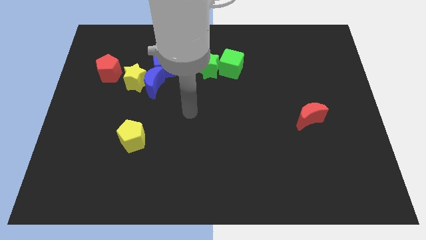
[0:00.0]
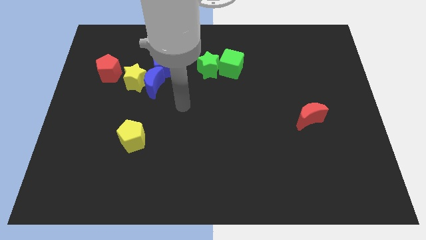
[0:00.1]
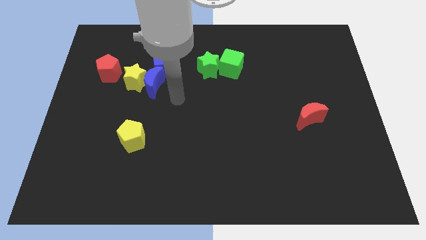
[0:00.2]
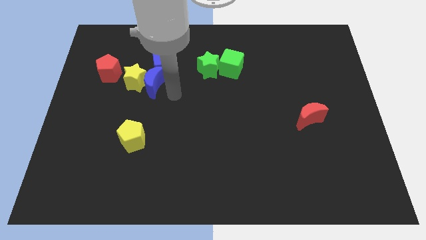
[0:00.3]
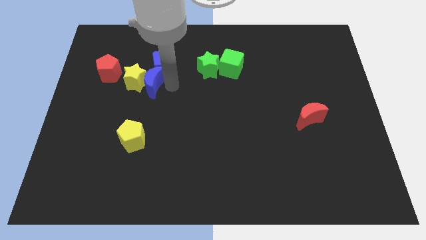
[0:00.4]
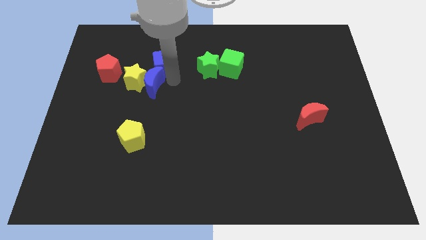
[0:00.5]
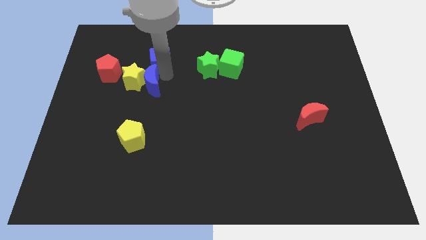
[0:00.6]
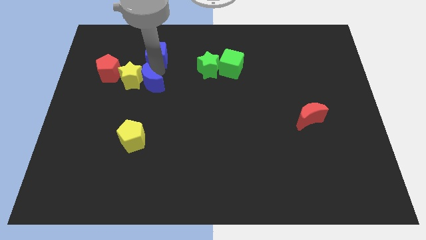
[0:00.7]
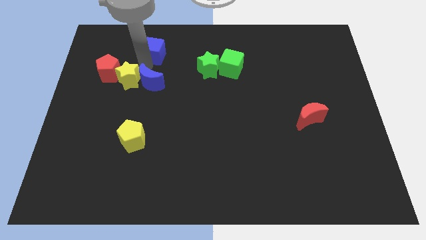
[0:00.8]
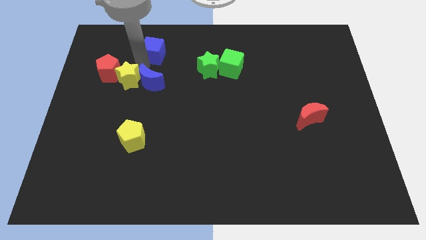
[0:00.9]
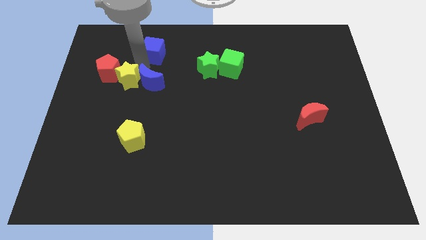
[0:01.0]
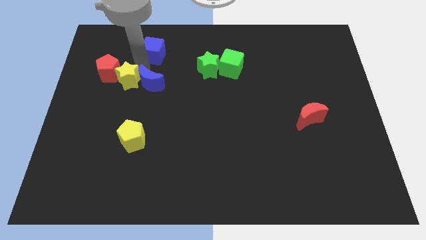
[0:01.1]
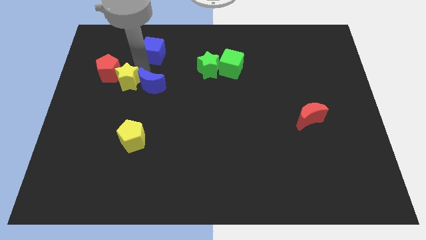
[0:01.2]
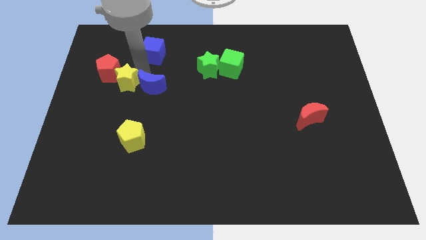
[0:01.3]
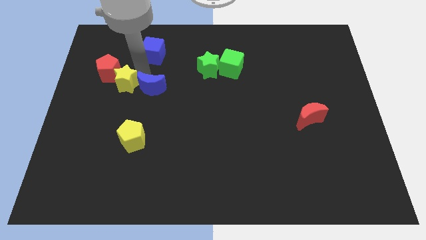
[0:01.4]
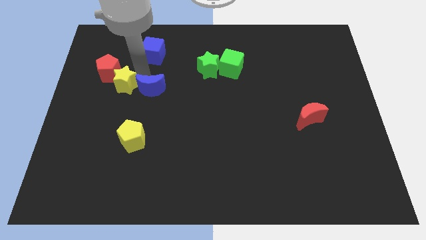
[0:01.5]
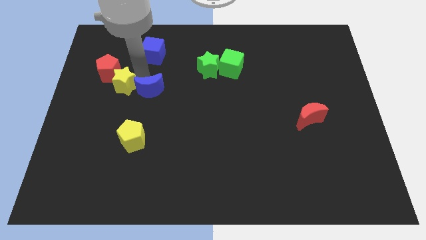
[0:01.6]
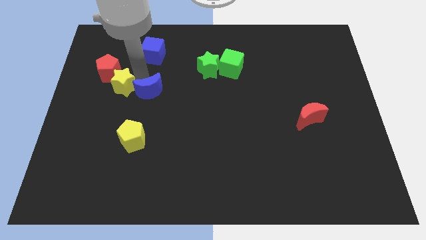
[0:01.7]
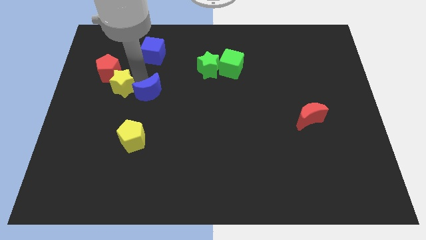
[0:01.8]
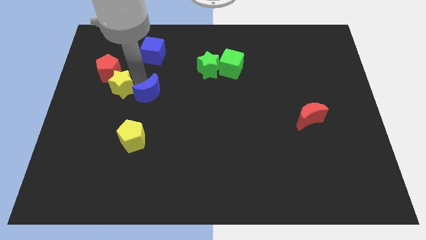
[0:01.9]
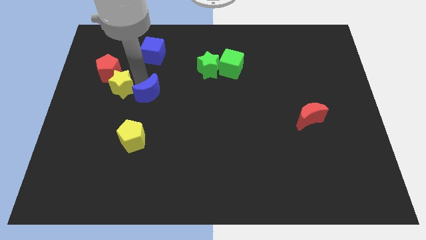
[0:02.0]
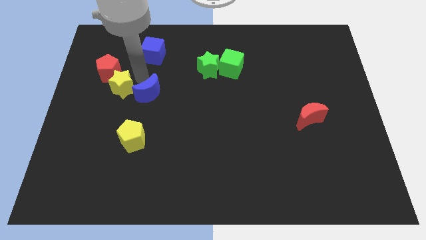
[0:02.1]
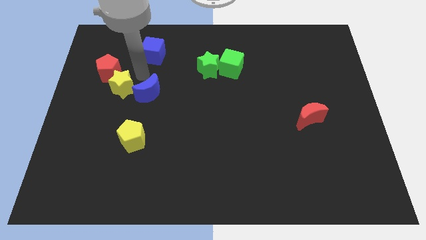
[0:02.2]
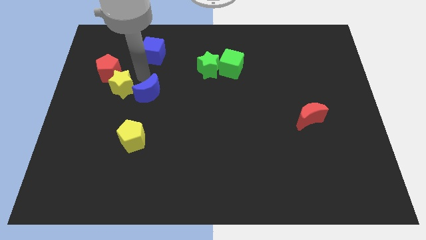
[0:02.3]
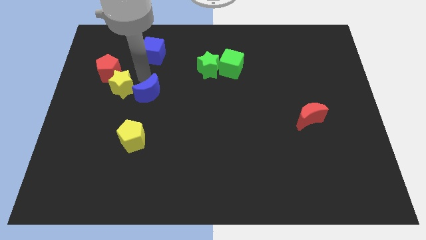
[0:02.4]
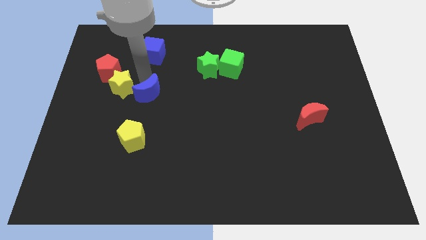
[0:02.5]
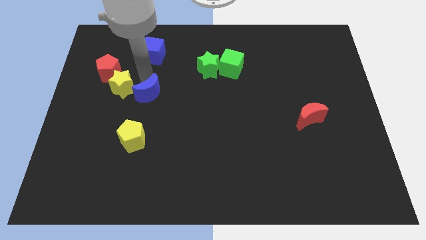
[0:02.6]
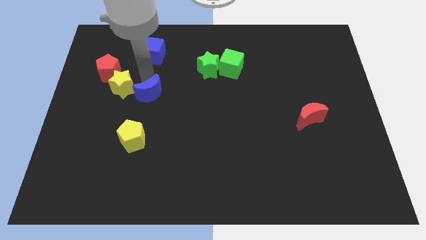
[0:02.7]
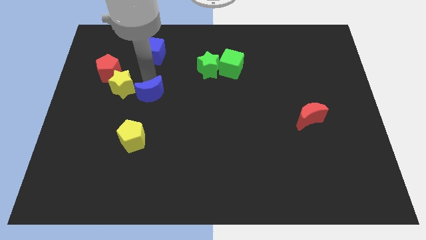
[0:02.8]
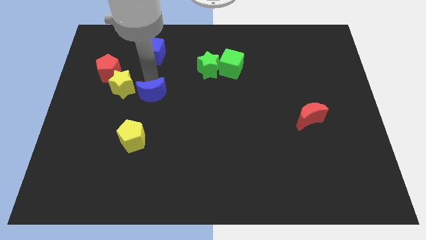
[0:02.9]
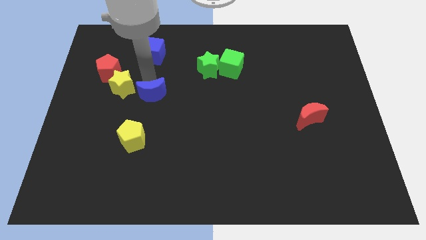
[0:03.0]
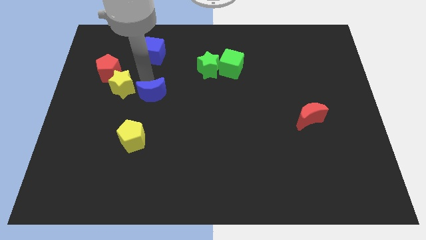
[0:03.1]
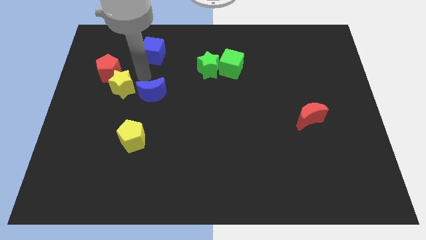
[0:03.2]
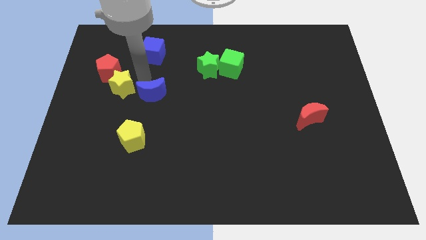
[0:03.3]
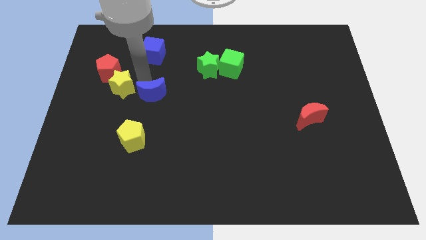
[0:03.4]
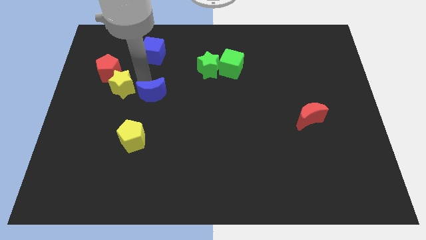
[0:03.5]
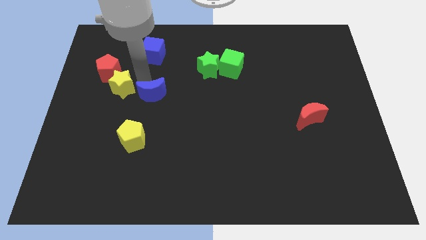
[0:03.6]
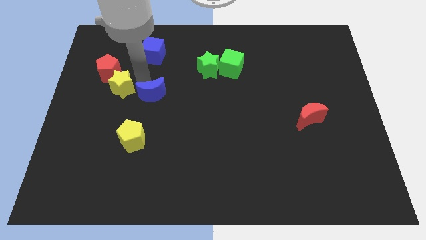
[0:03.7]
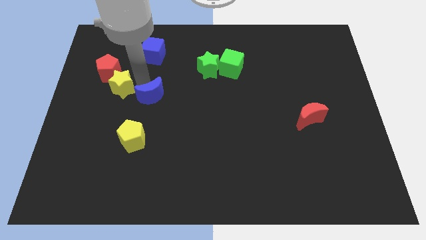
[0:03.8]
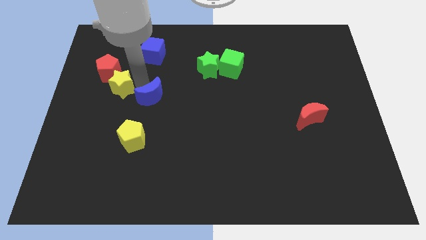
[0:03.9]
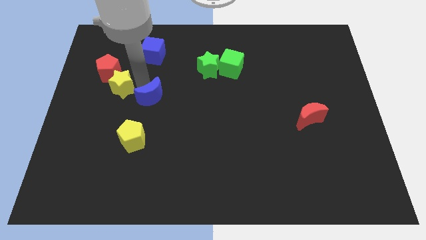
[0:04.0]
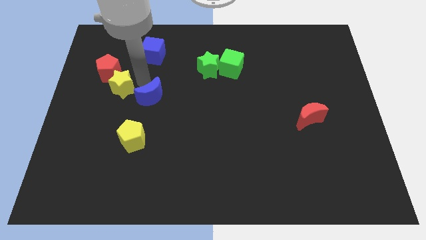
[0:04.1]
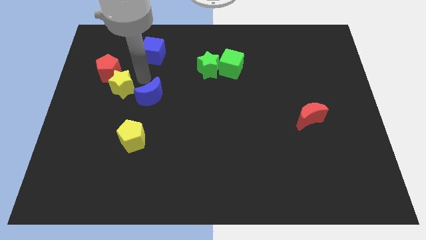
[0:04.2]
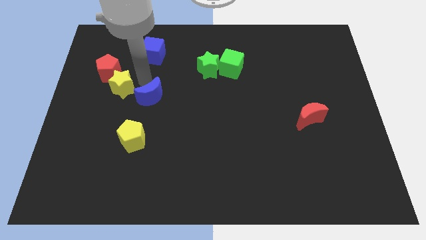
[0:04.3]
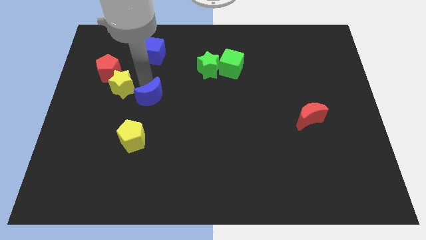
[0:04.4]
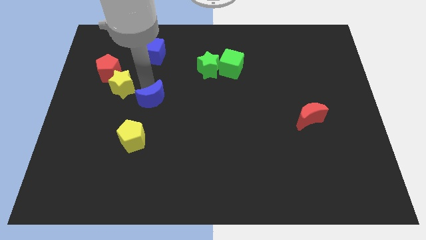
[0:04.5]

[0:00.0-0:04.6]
move the blue moon away from the yellow star and blue cube

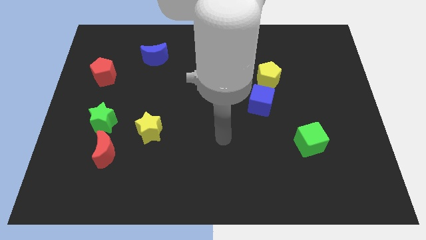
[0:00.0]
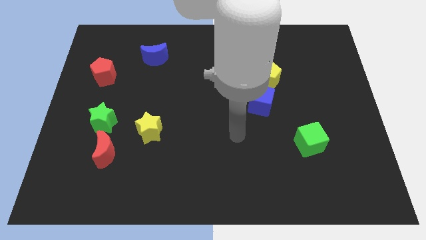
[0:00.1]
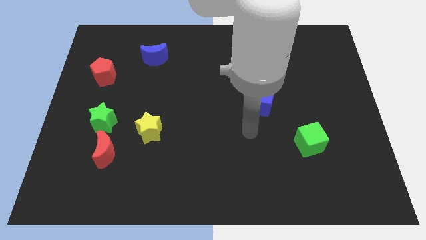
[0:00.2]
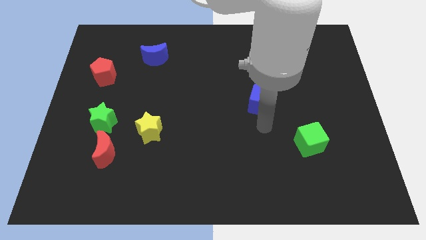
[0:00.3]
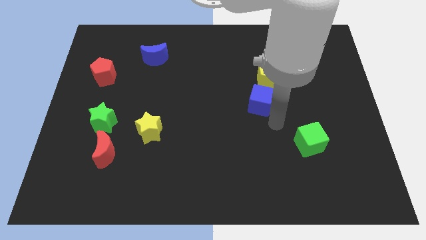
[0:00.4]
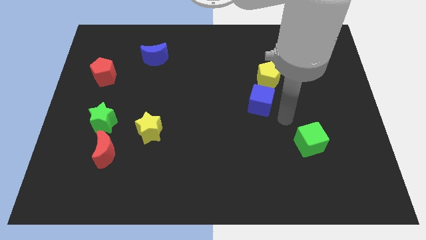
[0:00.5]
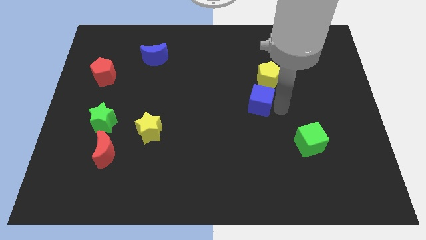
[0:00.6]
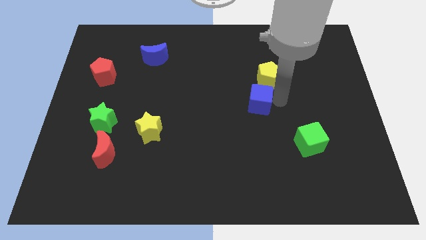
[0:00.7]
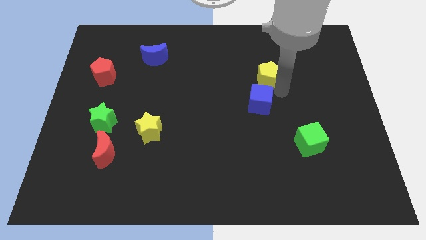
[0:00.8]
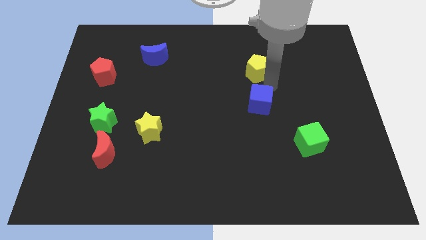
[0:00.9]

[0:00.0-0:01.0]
pull the blue cube apart from the yellow pentagon

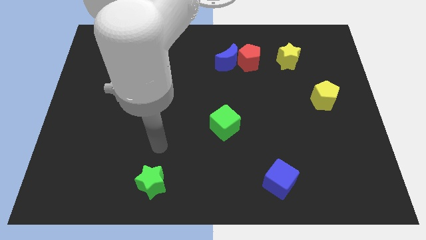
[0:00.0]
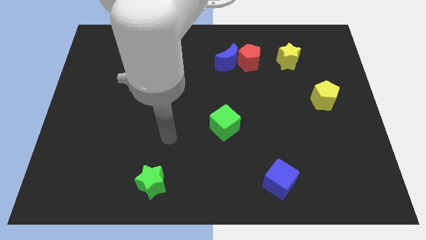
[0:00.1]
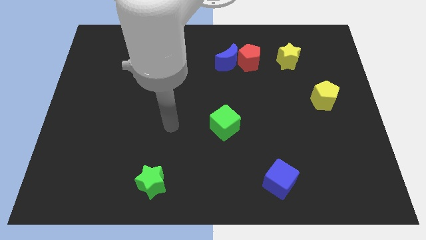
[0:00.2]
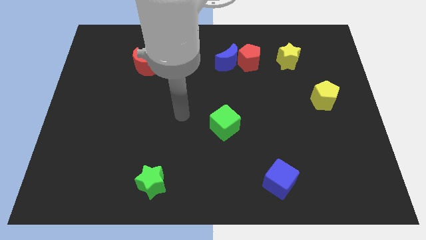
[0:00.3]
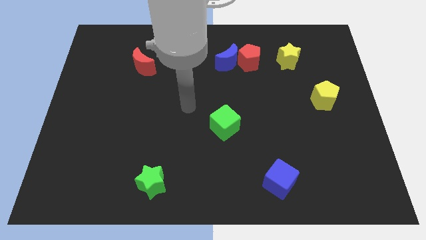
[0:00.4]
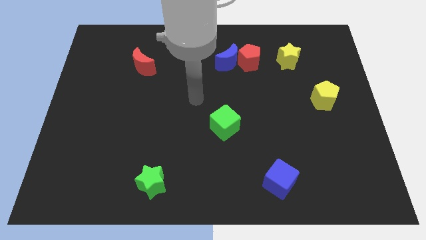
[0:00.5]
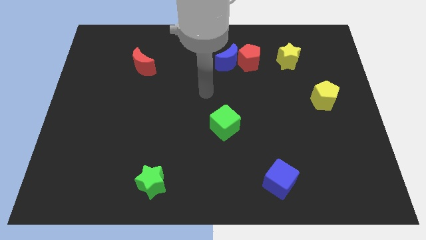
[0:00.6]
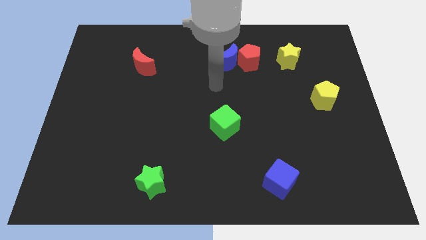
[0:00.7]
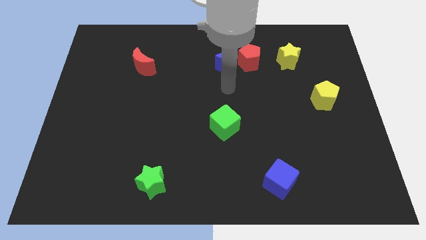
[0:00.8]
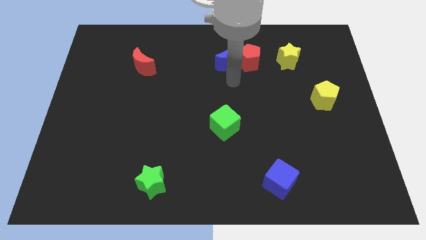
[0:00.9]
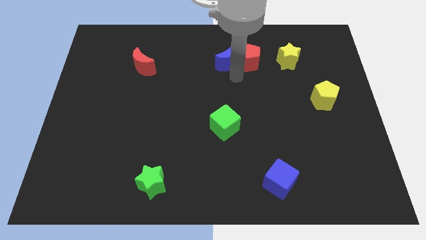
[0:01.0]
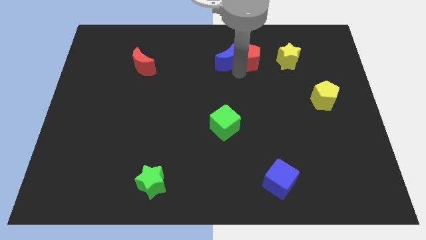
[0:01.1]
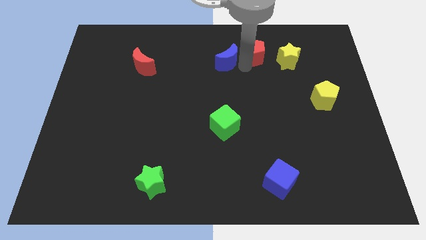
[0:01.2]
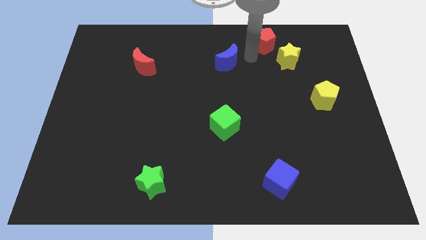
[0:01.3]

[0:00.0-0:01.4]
move the blue moon away from the red pentagon

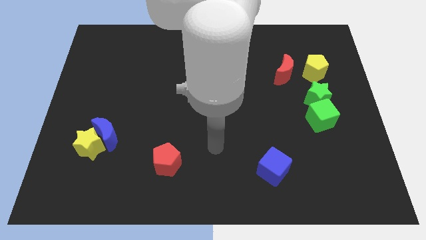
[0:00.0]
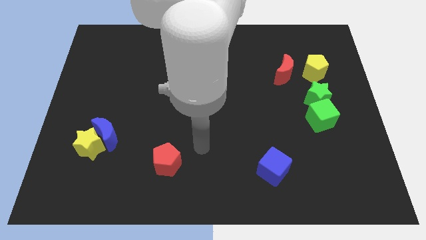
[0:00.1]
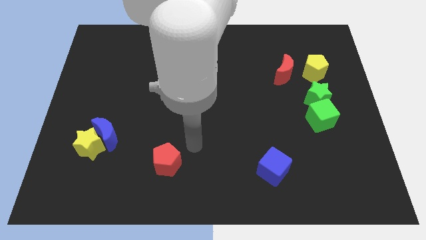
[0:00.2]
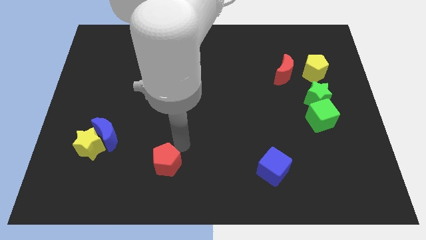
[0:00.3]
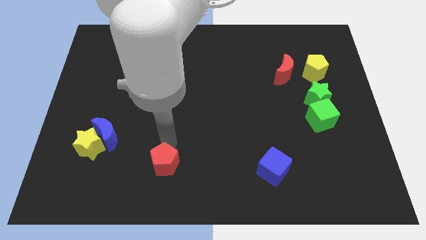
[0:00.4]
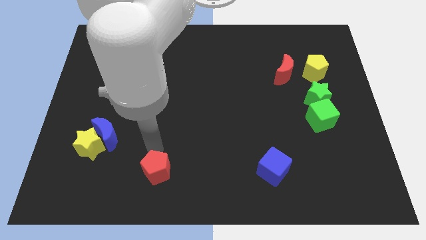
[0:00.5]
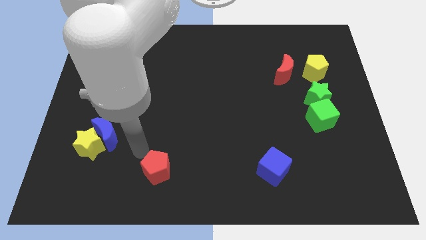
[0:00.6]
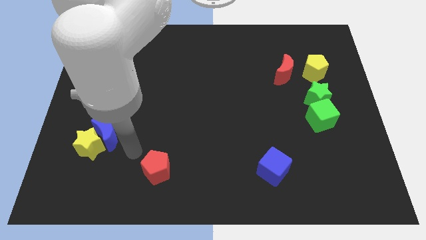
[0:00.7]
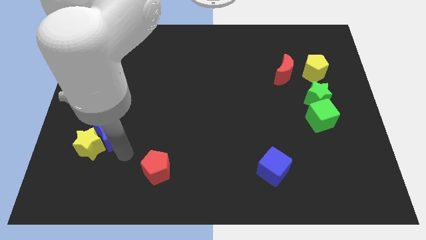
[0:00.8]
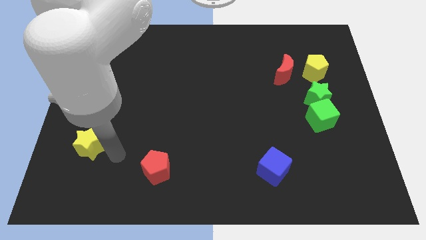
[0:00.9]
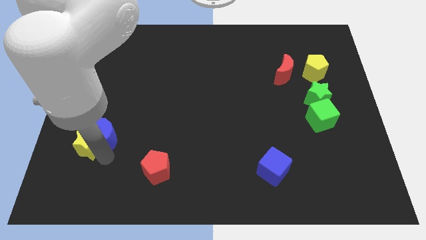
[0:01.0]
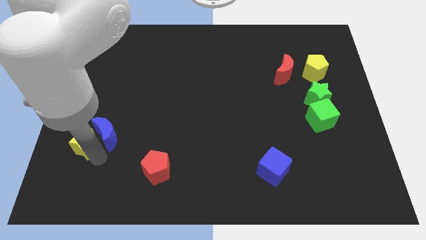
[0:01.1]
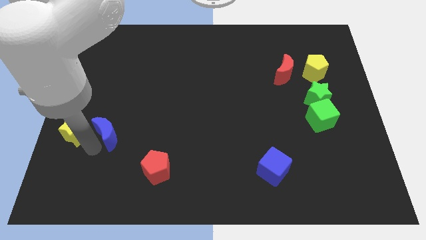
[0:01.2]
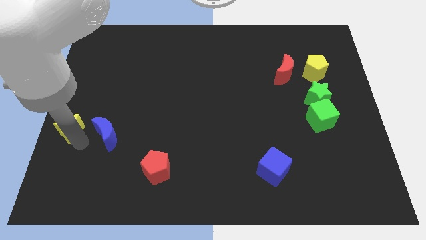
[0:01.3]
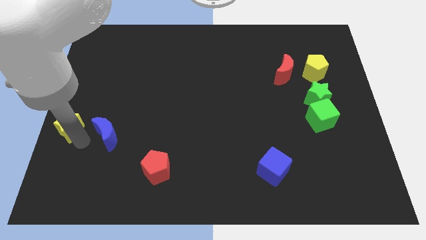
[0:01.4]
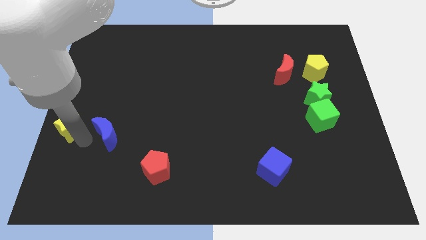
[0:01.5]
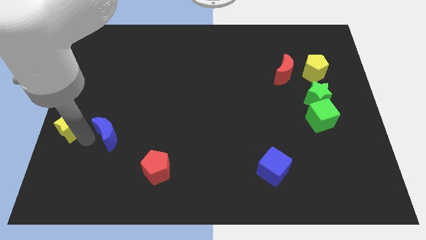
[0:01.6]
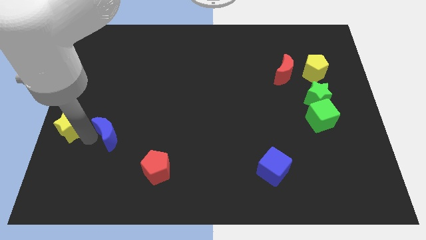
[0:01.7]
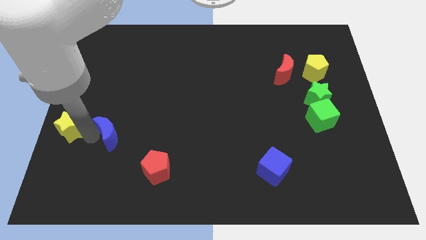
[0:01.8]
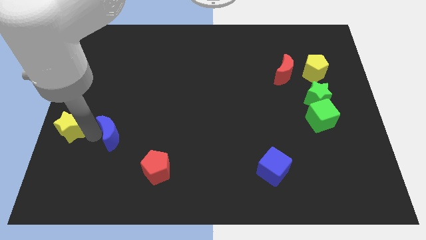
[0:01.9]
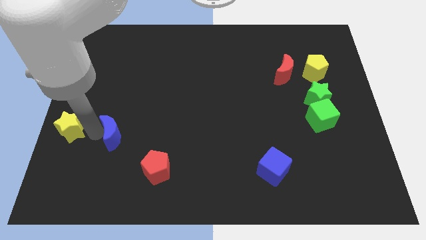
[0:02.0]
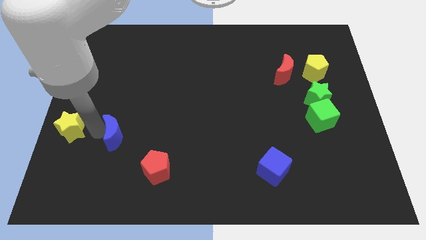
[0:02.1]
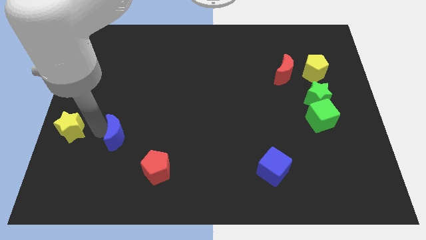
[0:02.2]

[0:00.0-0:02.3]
pull the blue moon apart from the yellow star
